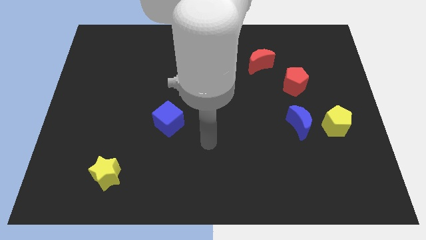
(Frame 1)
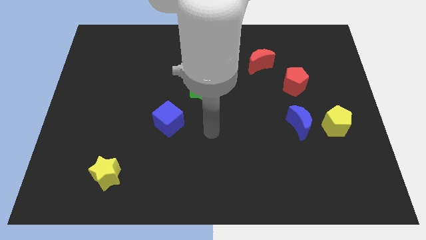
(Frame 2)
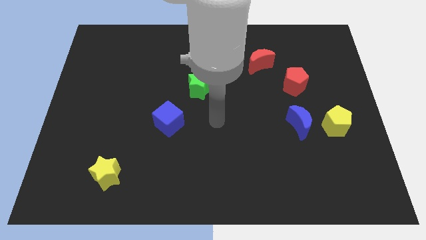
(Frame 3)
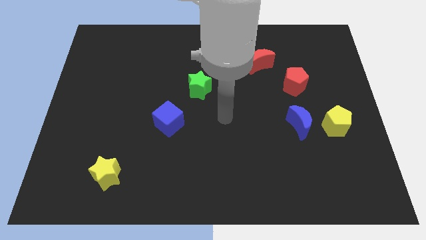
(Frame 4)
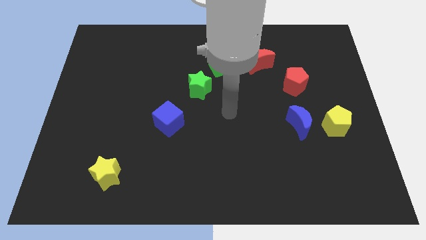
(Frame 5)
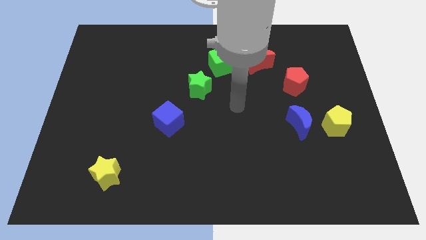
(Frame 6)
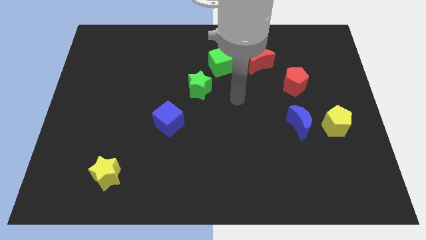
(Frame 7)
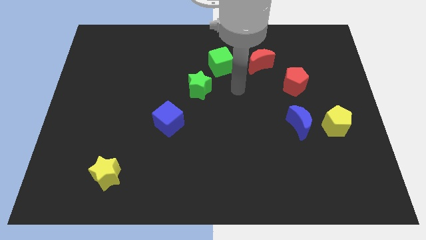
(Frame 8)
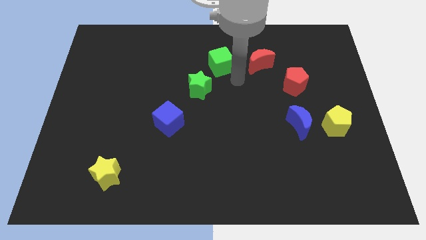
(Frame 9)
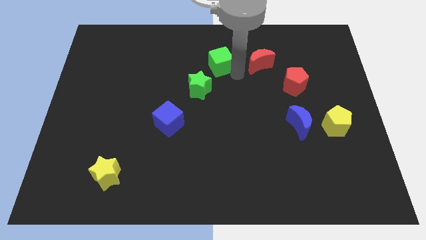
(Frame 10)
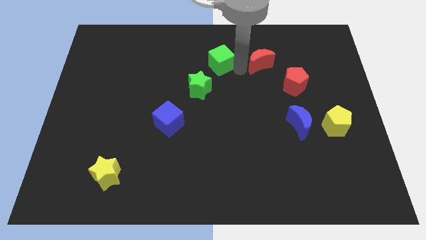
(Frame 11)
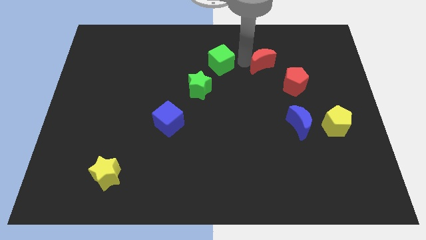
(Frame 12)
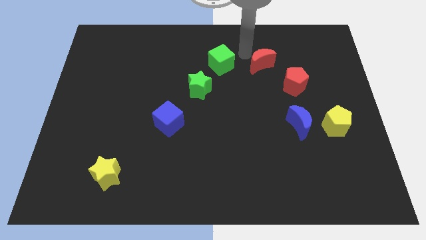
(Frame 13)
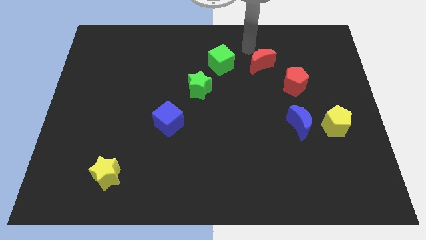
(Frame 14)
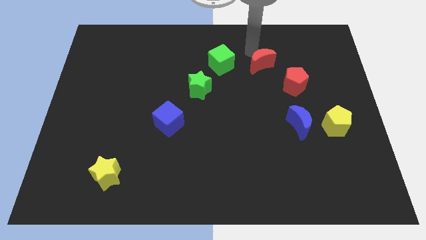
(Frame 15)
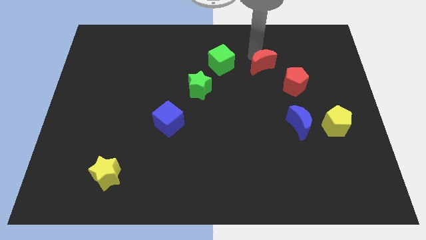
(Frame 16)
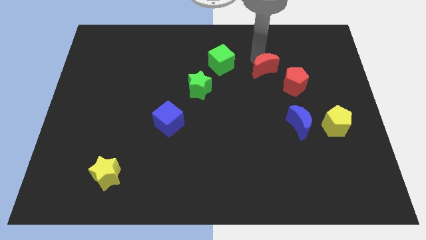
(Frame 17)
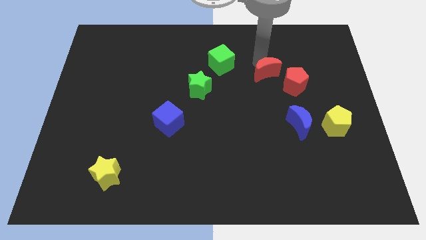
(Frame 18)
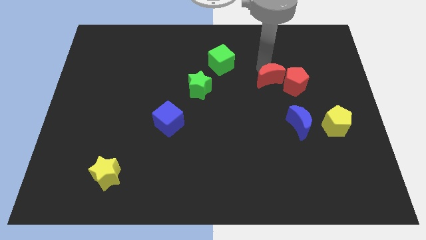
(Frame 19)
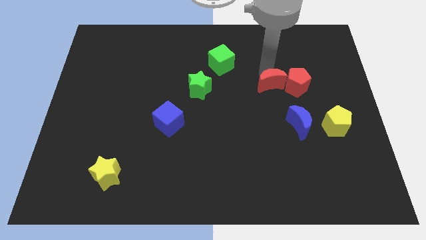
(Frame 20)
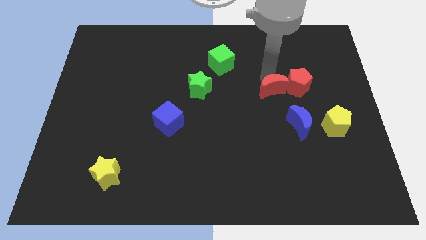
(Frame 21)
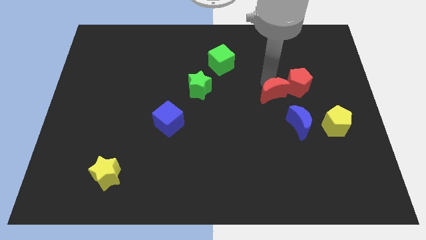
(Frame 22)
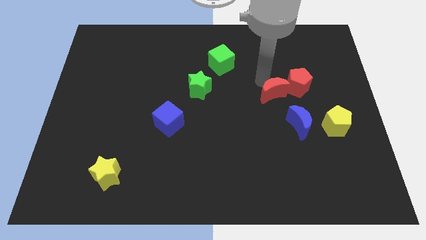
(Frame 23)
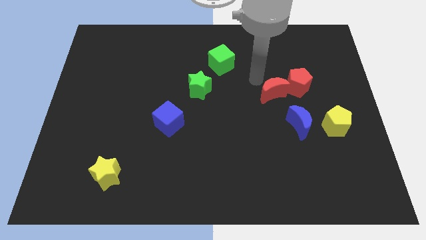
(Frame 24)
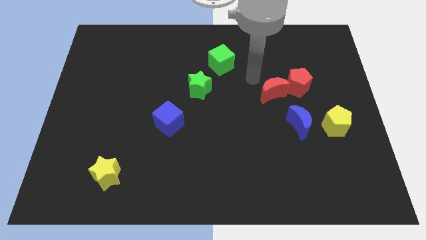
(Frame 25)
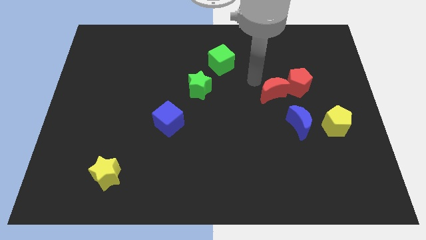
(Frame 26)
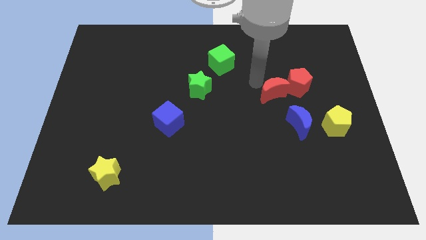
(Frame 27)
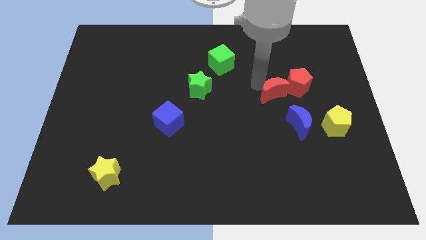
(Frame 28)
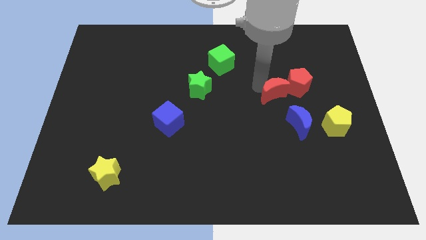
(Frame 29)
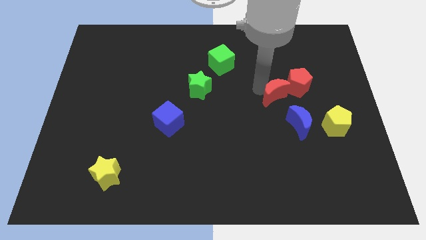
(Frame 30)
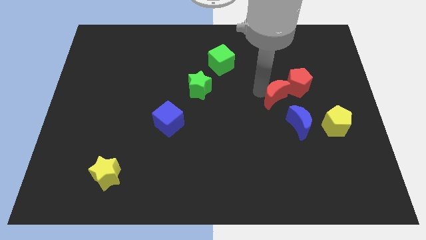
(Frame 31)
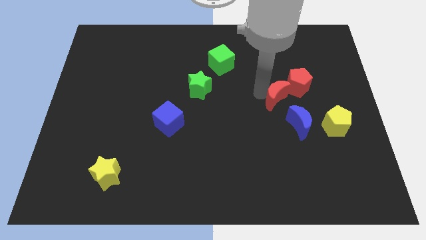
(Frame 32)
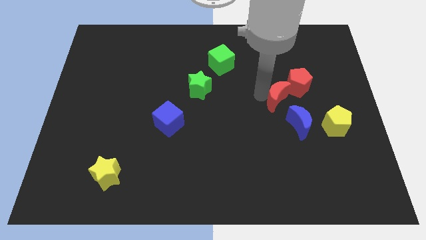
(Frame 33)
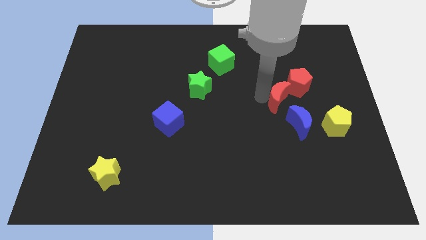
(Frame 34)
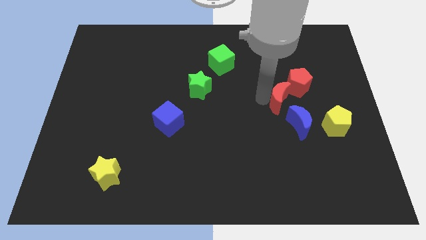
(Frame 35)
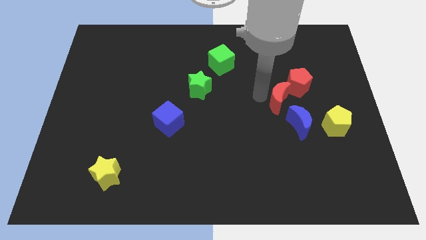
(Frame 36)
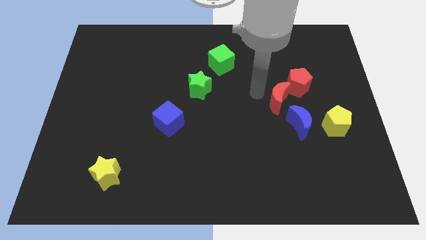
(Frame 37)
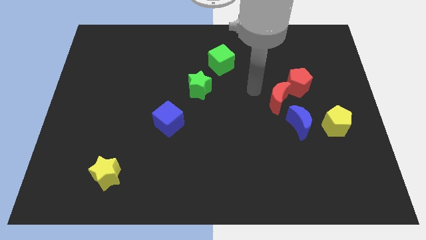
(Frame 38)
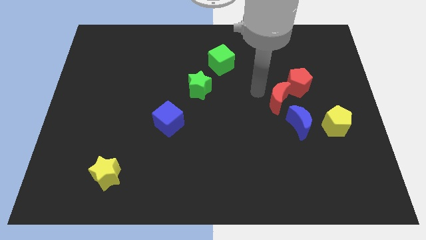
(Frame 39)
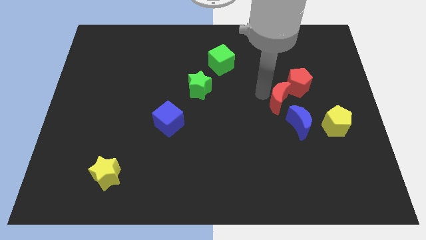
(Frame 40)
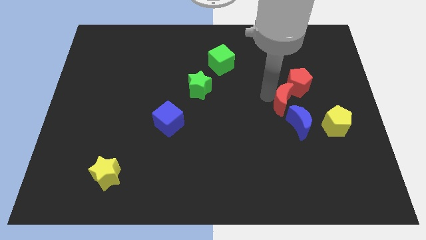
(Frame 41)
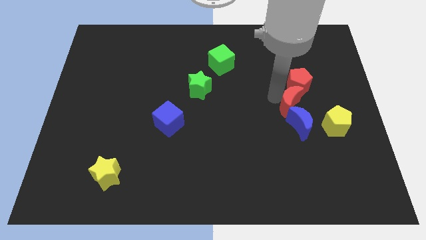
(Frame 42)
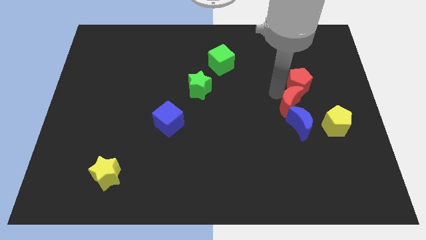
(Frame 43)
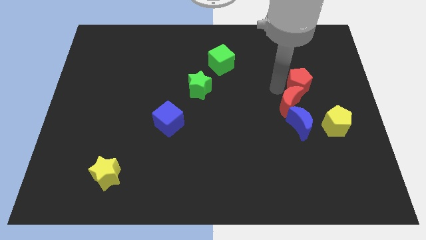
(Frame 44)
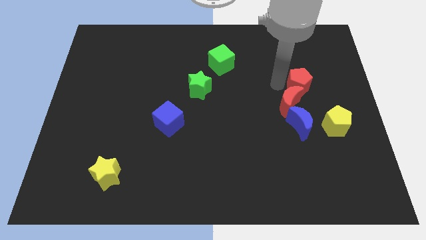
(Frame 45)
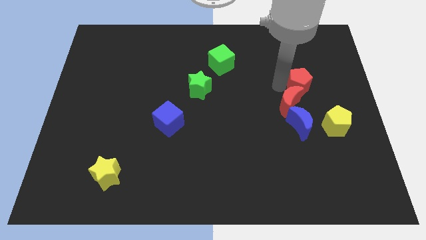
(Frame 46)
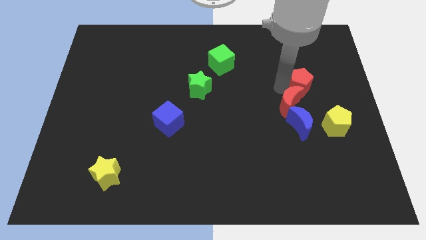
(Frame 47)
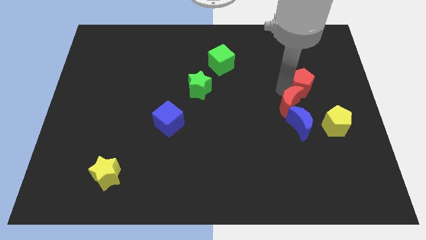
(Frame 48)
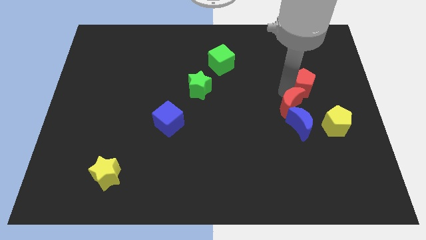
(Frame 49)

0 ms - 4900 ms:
move the red moon towards the blue moon

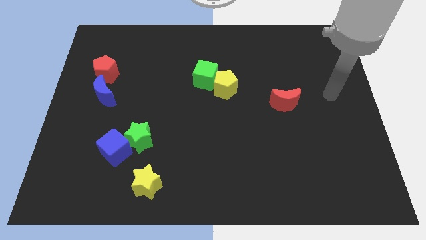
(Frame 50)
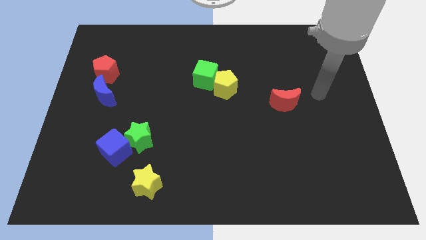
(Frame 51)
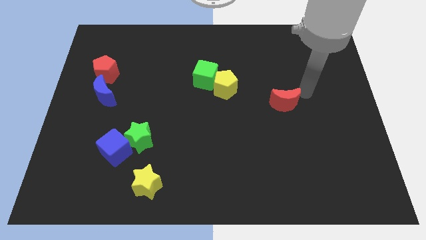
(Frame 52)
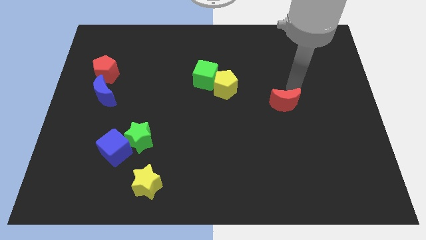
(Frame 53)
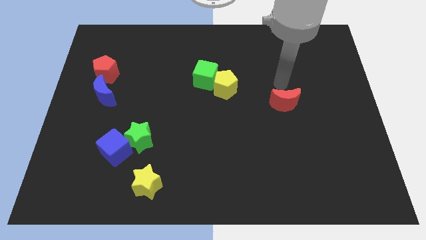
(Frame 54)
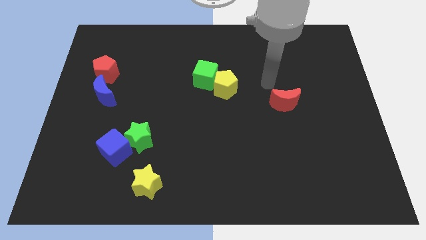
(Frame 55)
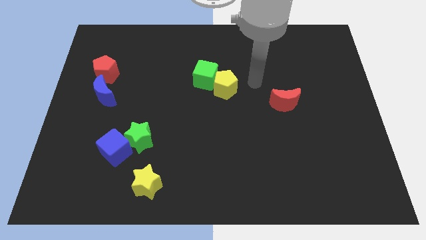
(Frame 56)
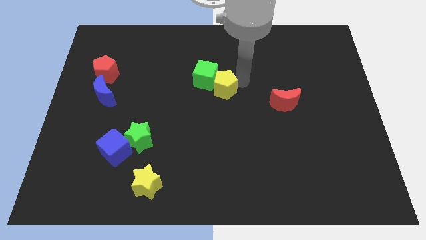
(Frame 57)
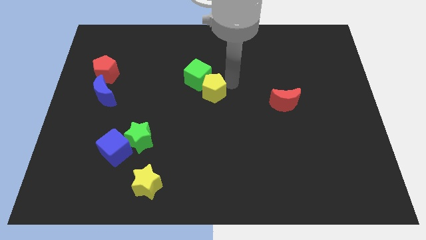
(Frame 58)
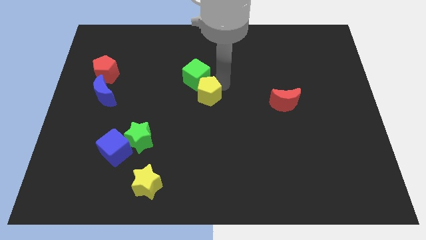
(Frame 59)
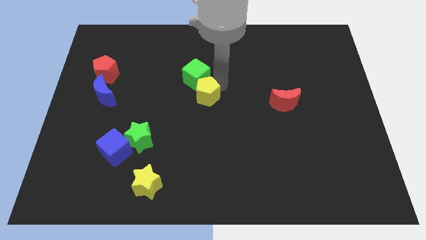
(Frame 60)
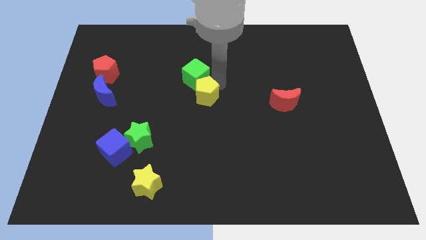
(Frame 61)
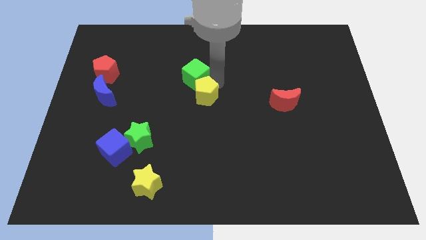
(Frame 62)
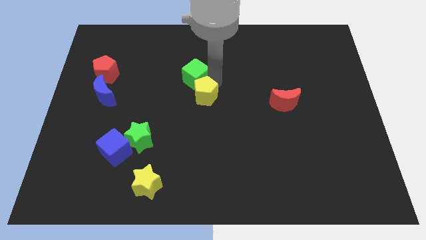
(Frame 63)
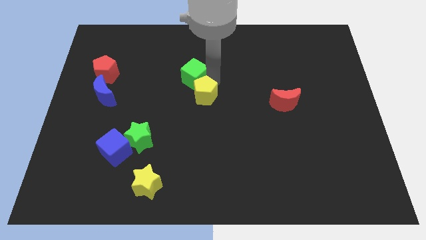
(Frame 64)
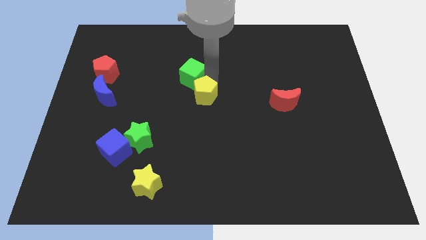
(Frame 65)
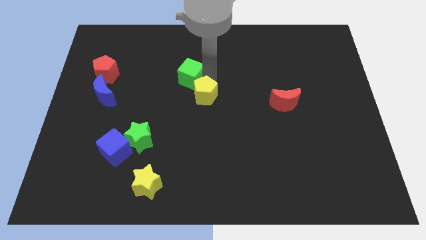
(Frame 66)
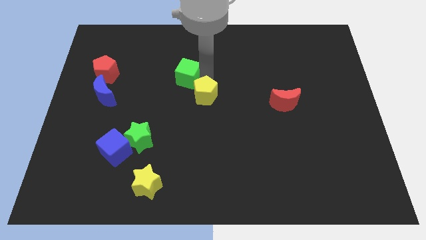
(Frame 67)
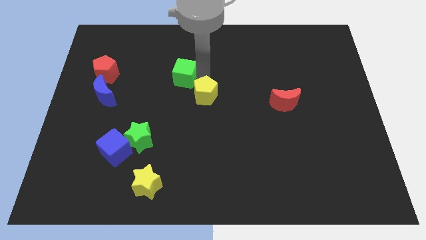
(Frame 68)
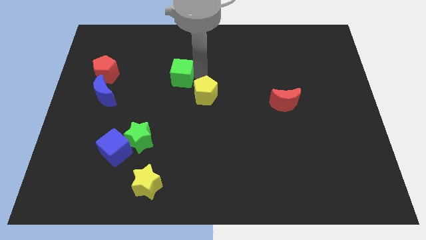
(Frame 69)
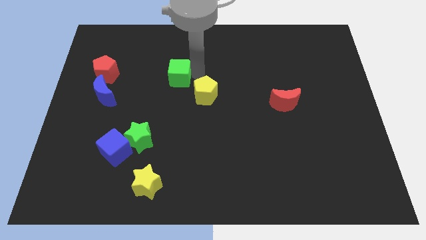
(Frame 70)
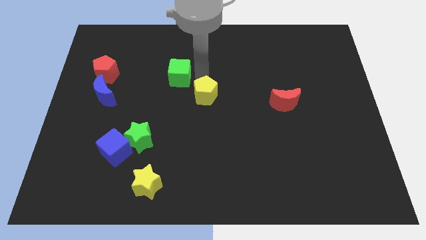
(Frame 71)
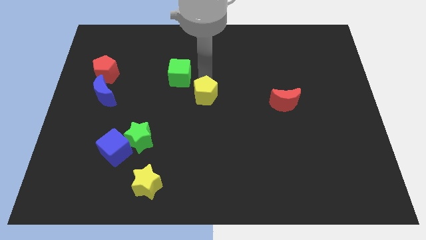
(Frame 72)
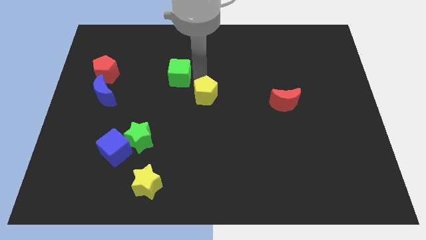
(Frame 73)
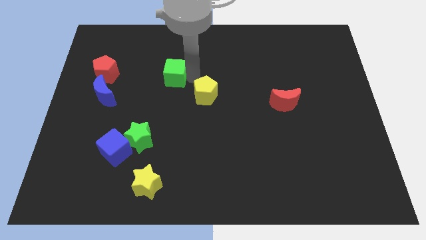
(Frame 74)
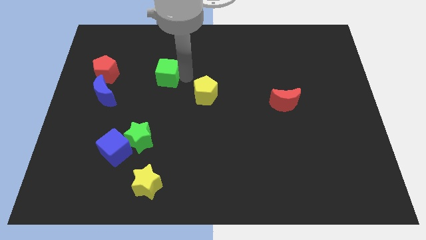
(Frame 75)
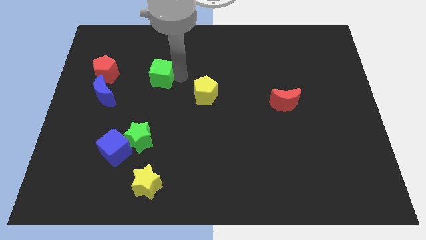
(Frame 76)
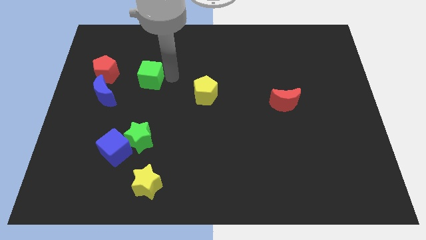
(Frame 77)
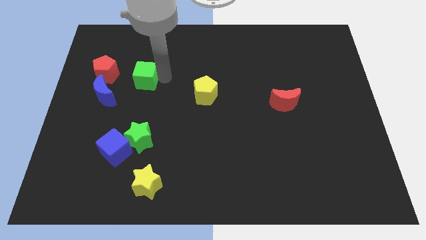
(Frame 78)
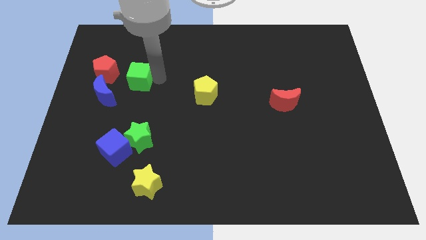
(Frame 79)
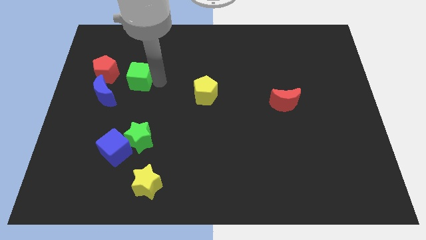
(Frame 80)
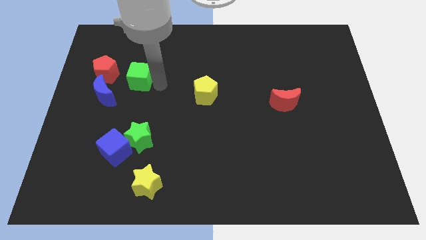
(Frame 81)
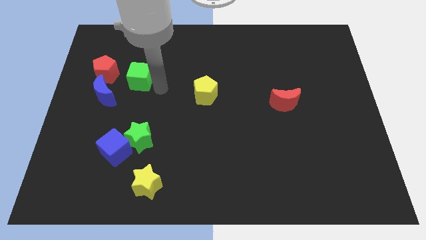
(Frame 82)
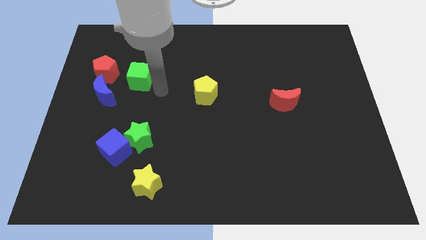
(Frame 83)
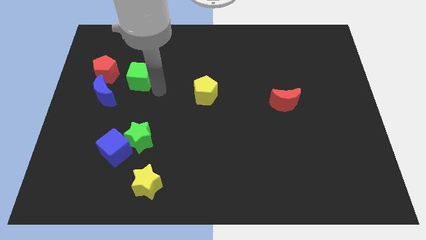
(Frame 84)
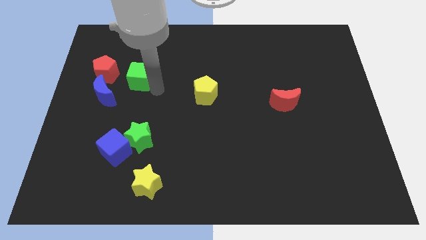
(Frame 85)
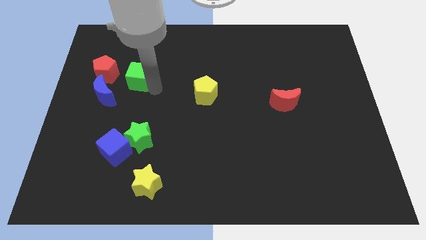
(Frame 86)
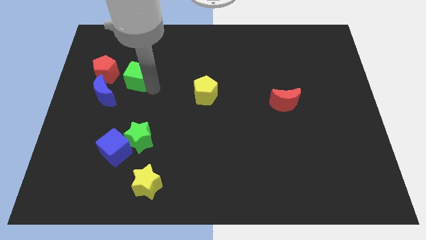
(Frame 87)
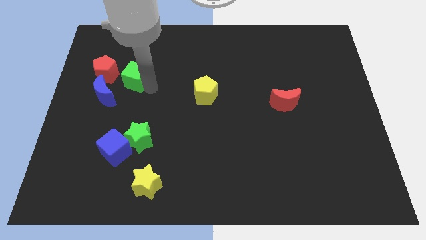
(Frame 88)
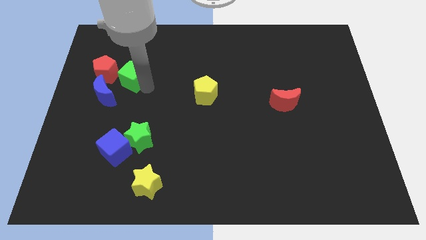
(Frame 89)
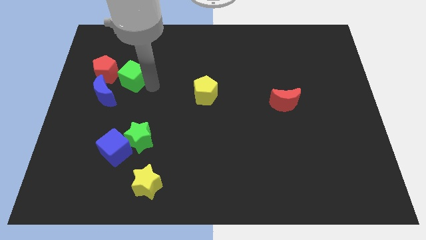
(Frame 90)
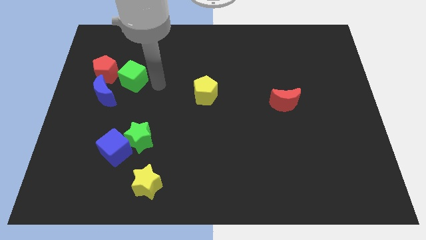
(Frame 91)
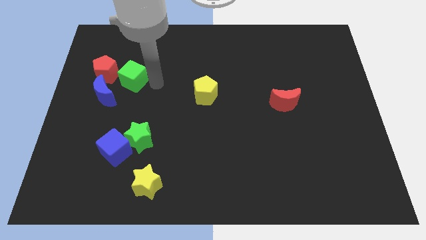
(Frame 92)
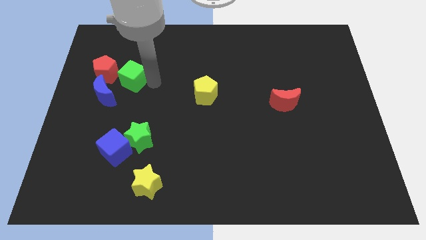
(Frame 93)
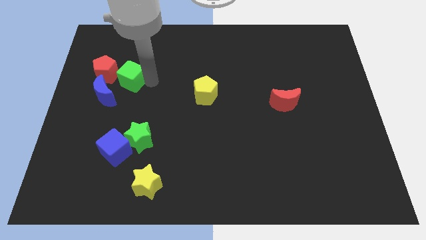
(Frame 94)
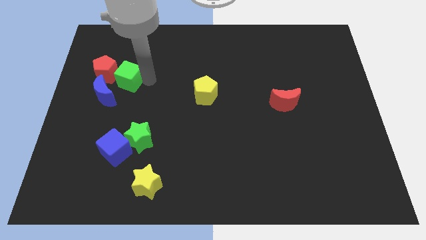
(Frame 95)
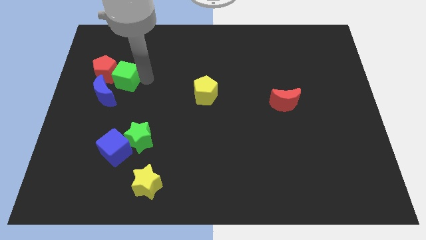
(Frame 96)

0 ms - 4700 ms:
put the green cube towards the red pentagon
